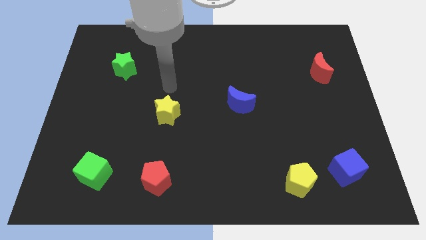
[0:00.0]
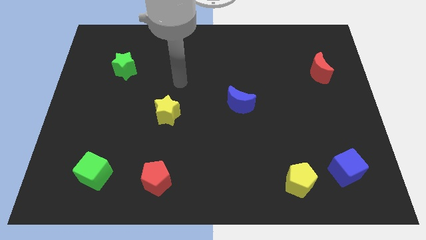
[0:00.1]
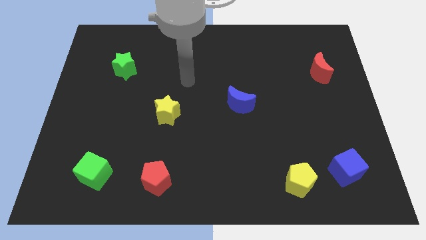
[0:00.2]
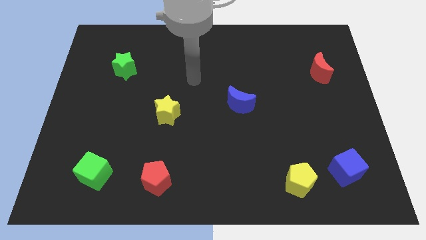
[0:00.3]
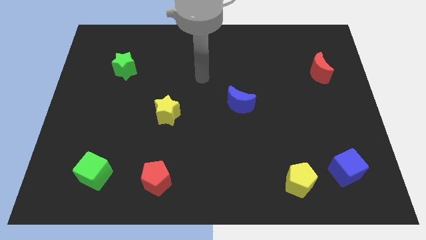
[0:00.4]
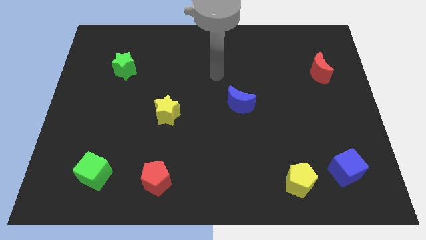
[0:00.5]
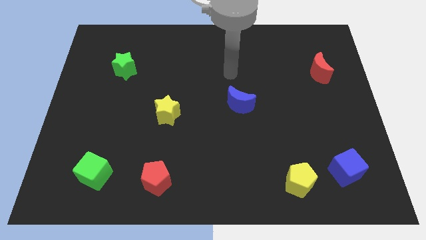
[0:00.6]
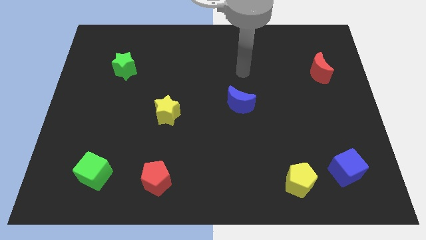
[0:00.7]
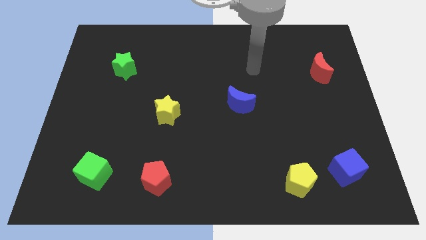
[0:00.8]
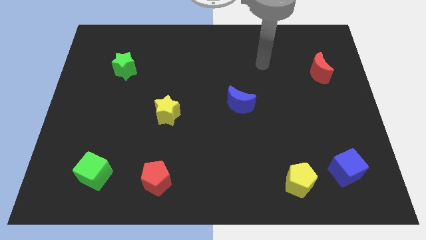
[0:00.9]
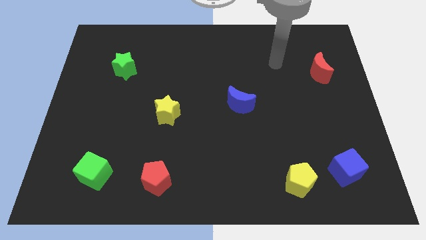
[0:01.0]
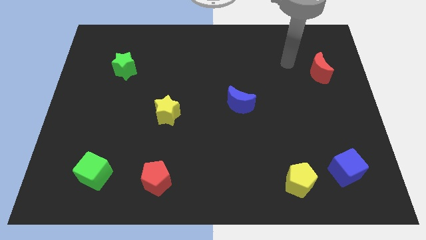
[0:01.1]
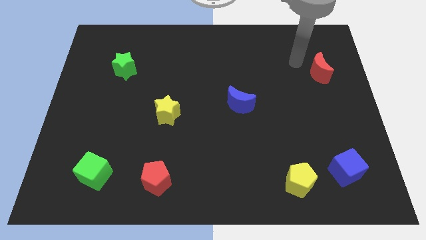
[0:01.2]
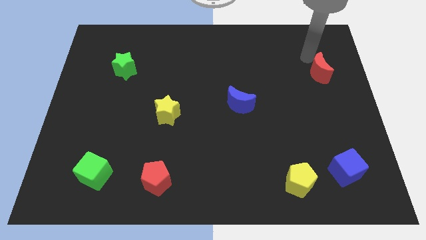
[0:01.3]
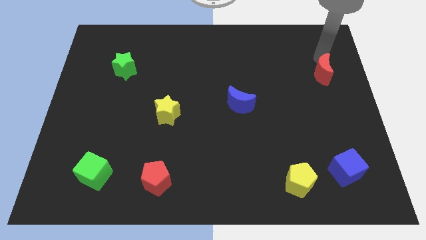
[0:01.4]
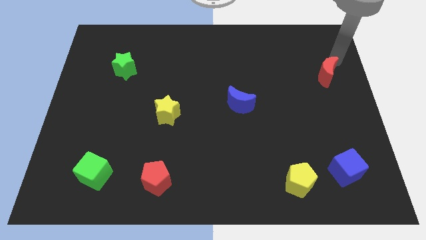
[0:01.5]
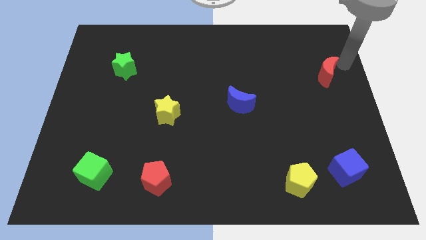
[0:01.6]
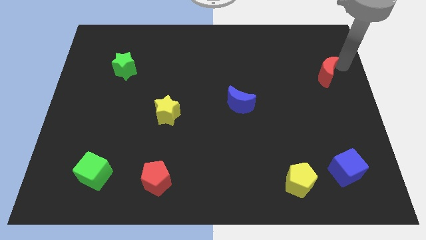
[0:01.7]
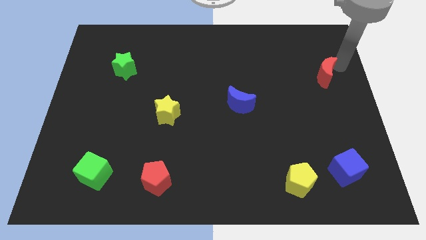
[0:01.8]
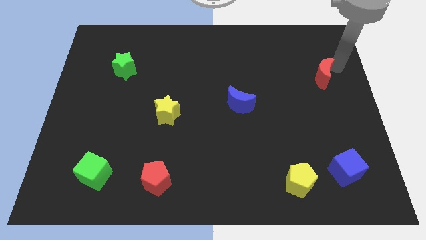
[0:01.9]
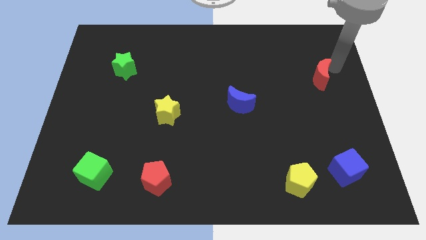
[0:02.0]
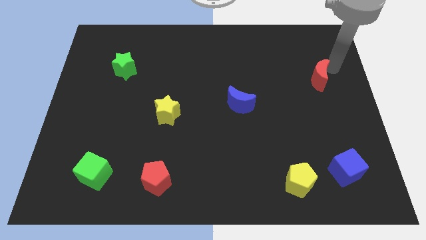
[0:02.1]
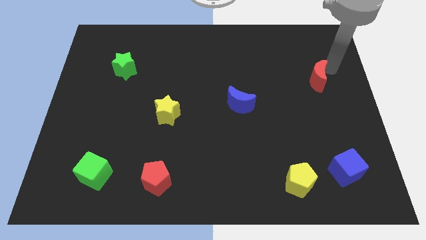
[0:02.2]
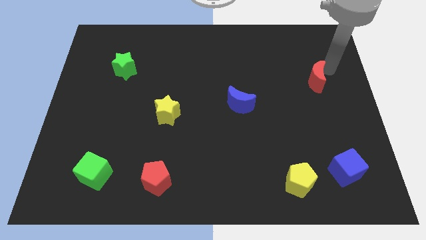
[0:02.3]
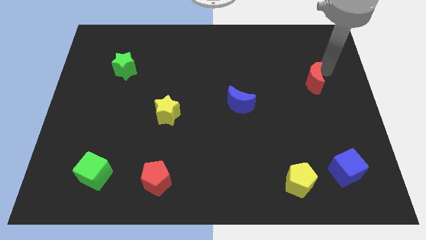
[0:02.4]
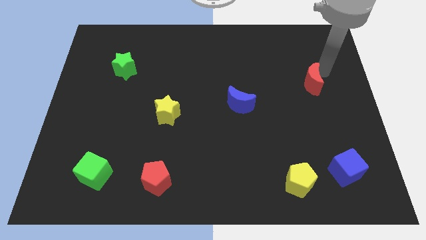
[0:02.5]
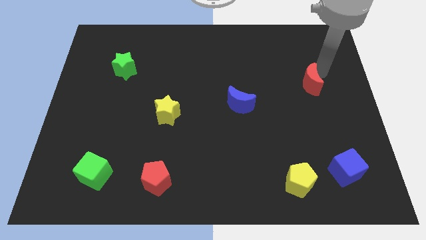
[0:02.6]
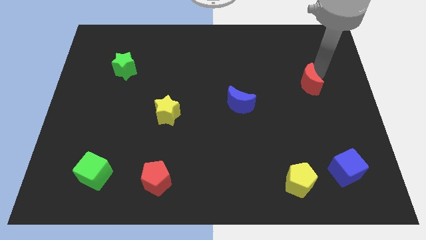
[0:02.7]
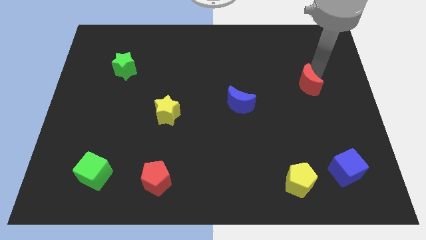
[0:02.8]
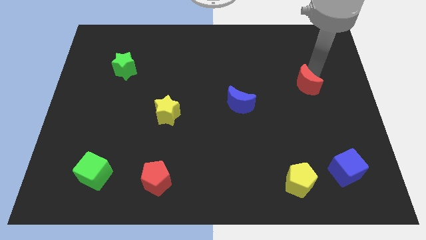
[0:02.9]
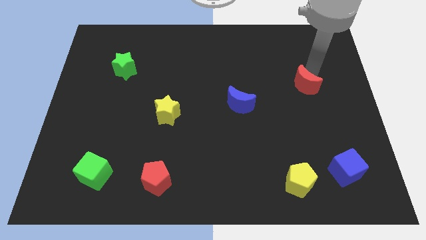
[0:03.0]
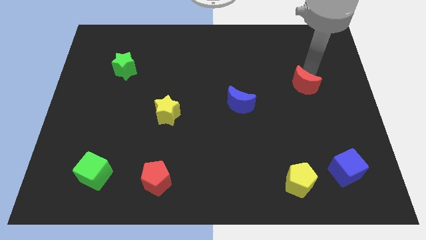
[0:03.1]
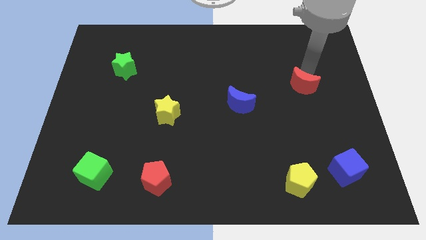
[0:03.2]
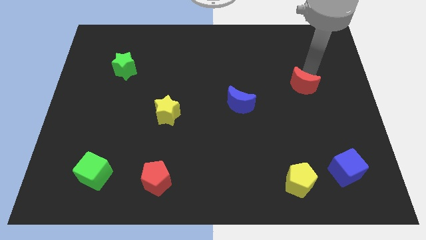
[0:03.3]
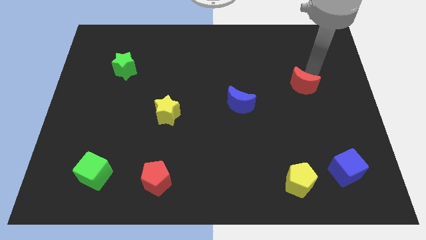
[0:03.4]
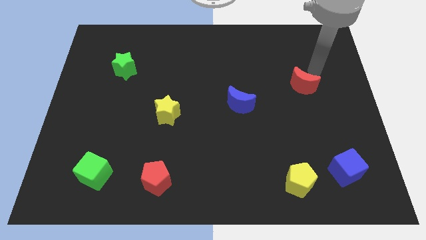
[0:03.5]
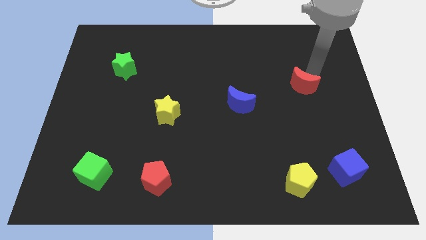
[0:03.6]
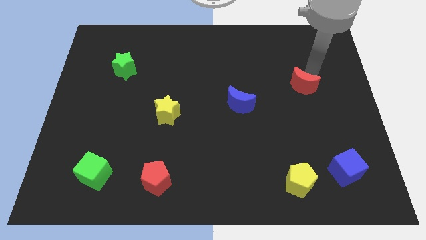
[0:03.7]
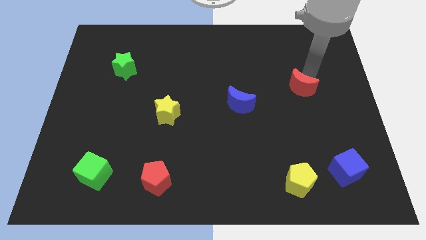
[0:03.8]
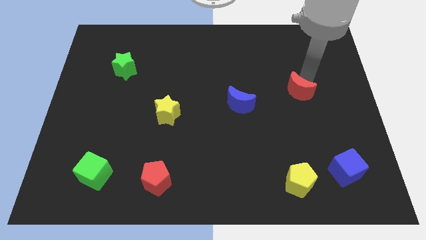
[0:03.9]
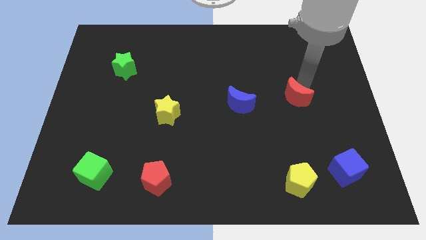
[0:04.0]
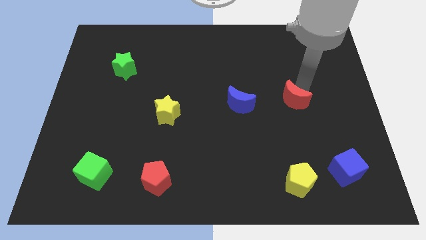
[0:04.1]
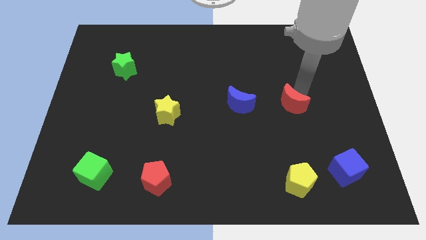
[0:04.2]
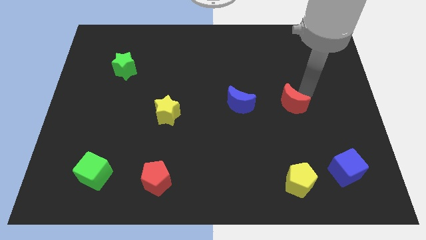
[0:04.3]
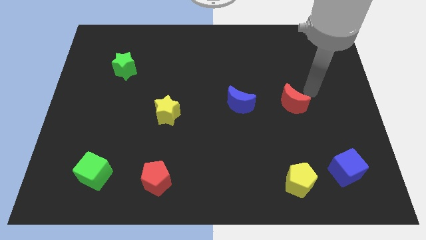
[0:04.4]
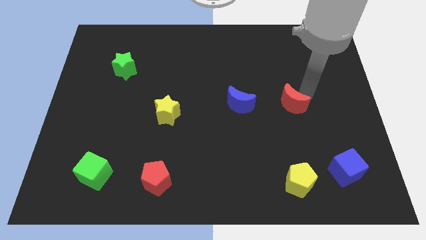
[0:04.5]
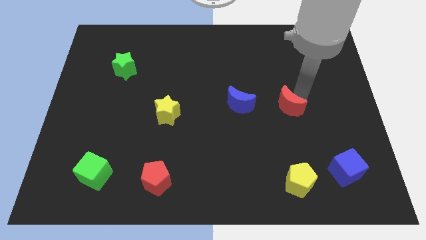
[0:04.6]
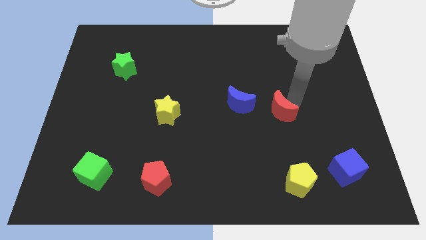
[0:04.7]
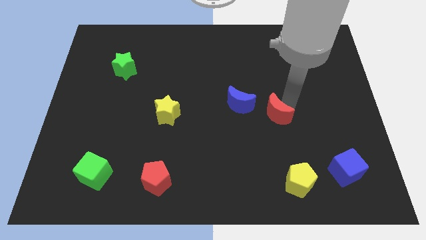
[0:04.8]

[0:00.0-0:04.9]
push the red moon diagonally down and to the right of the blue moon

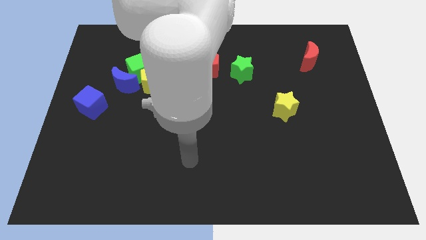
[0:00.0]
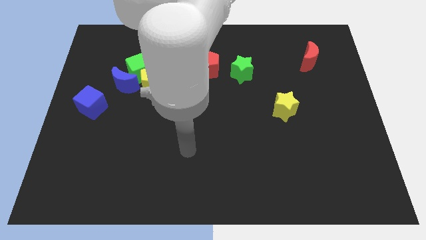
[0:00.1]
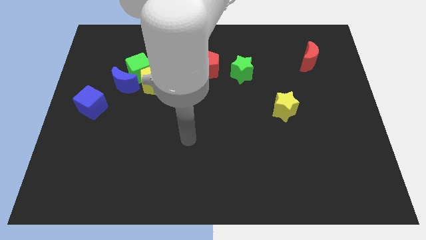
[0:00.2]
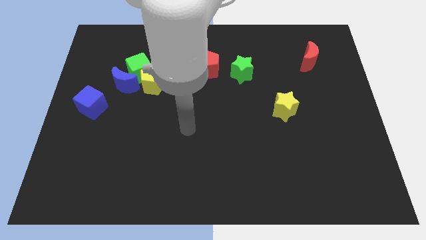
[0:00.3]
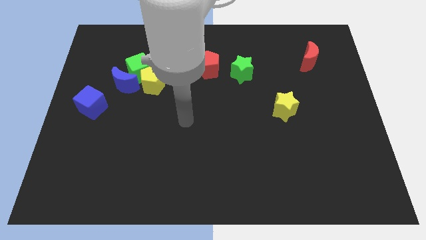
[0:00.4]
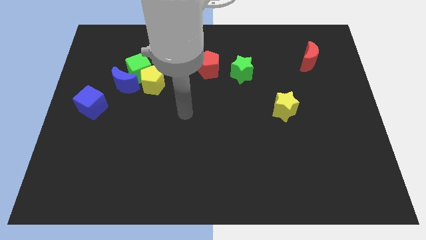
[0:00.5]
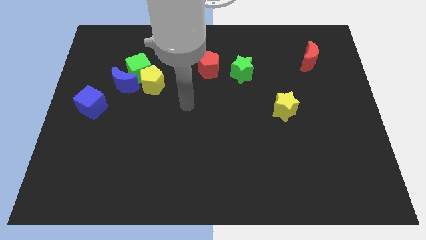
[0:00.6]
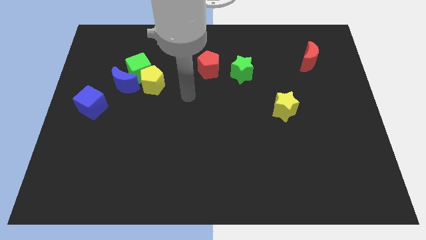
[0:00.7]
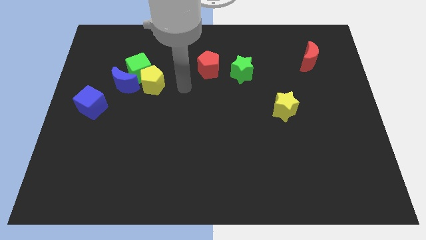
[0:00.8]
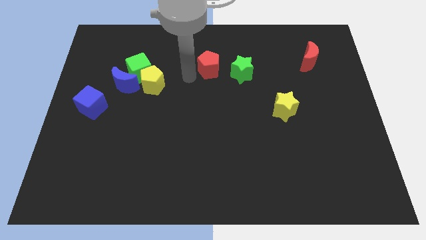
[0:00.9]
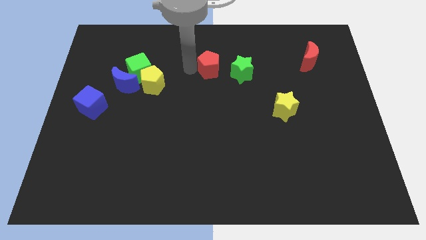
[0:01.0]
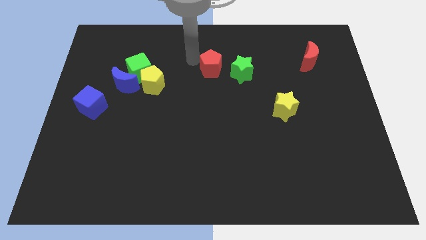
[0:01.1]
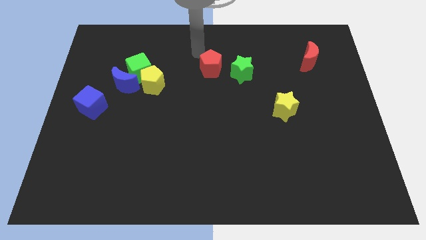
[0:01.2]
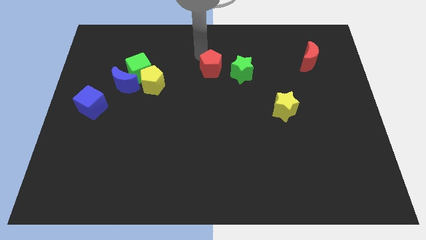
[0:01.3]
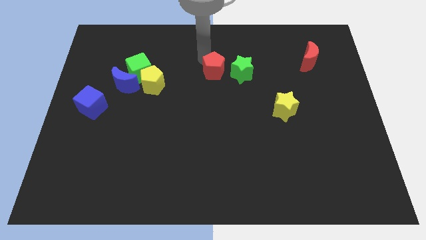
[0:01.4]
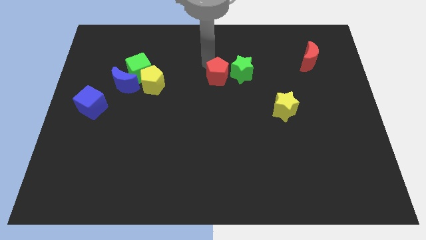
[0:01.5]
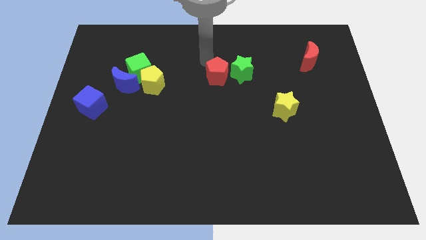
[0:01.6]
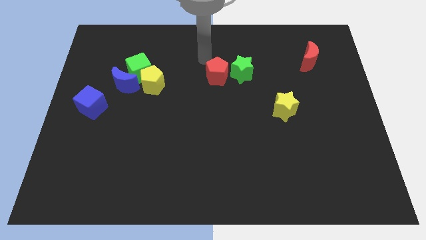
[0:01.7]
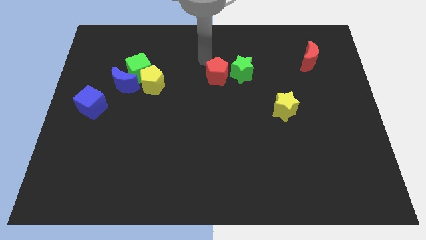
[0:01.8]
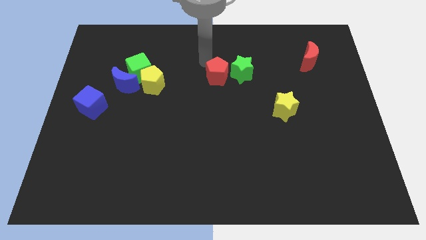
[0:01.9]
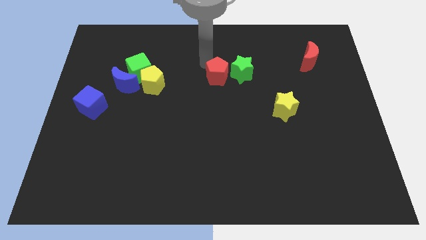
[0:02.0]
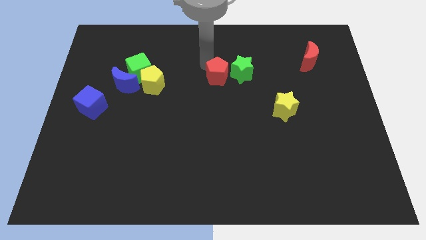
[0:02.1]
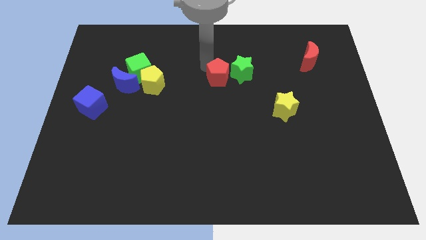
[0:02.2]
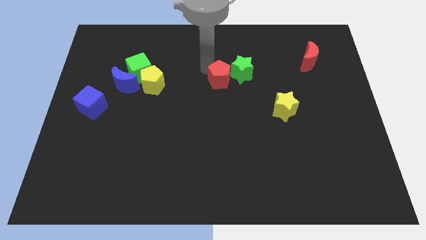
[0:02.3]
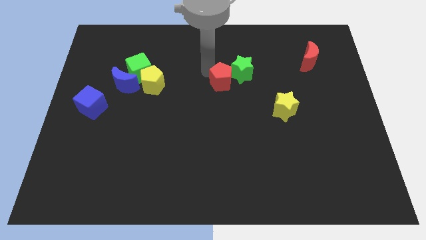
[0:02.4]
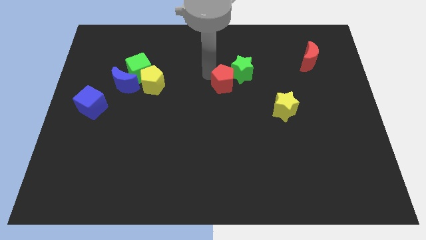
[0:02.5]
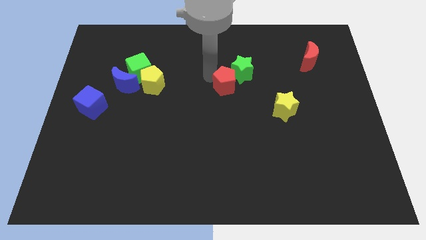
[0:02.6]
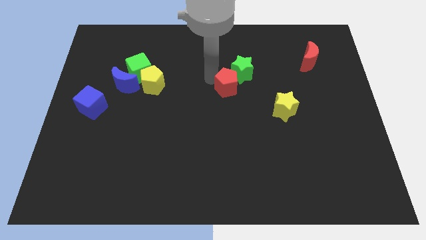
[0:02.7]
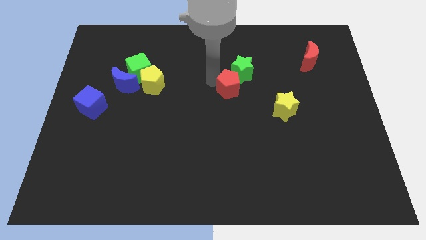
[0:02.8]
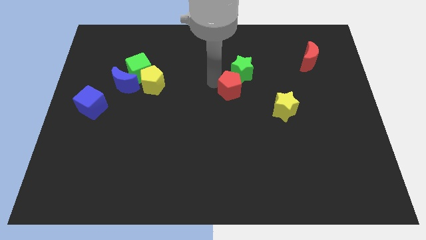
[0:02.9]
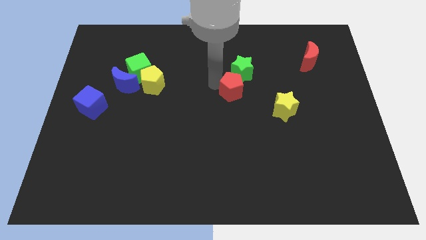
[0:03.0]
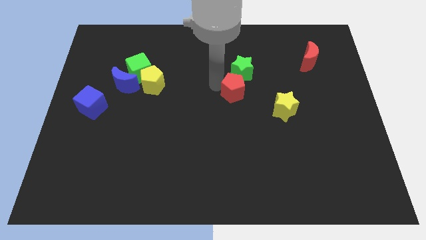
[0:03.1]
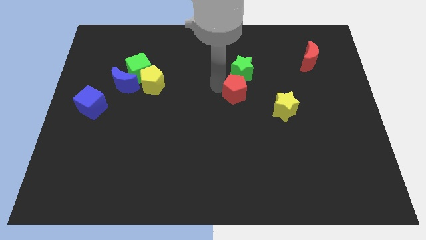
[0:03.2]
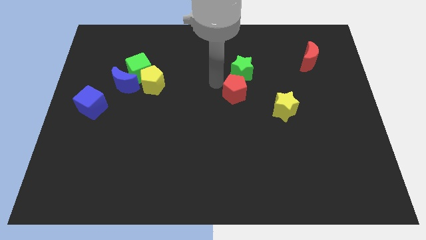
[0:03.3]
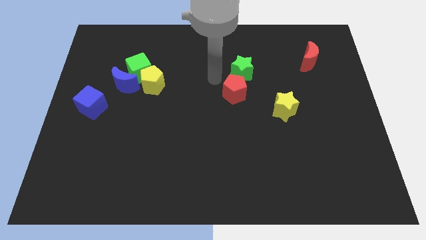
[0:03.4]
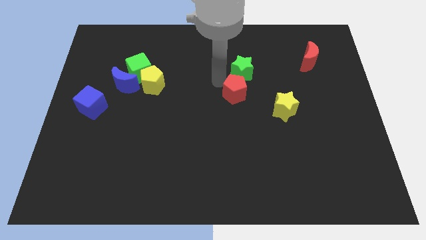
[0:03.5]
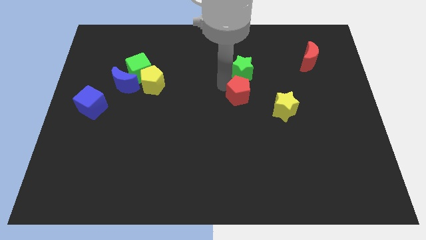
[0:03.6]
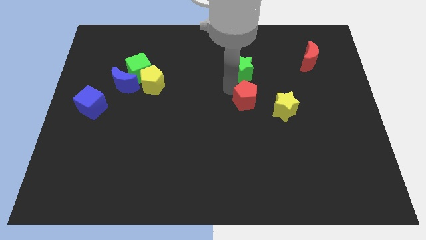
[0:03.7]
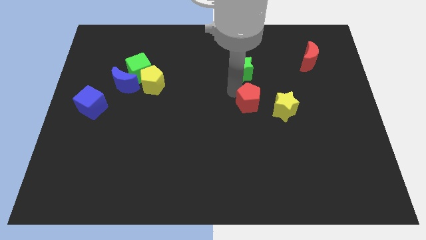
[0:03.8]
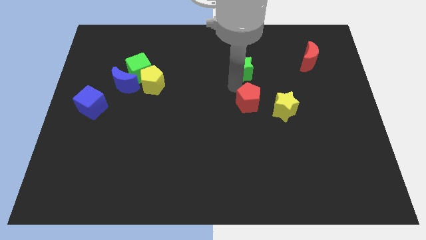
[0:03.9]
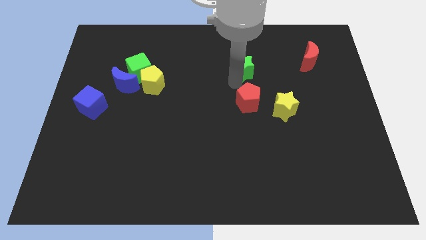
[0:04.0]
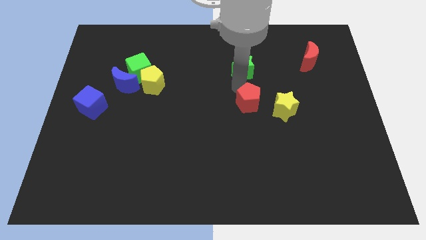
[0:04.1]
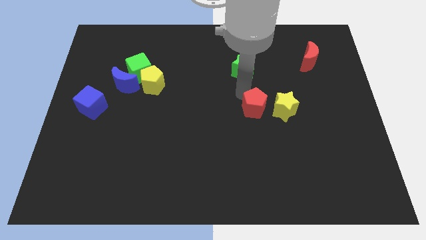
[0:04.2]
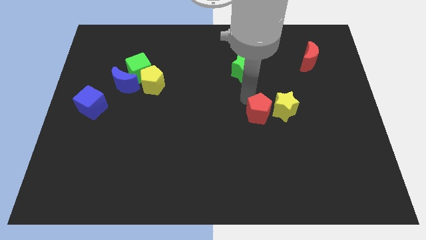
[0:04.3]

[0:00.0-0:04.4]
move the red pentagon diagonally down and to the left of the yellow star
